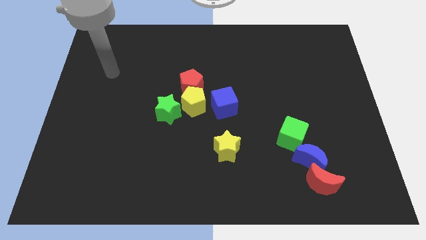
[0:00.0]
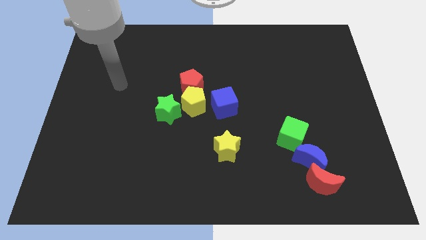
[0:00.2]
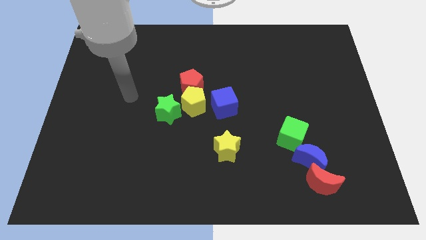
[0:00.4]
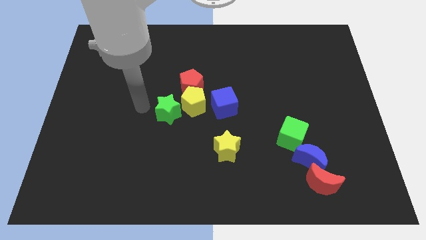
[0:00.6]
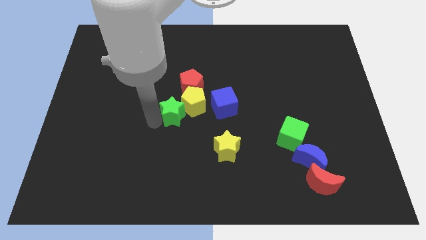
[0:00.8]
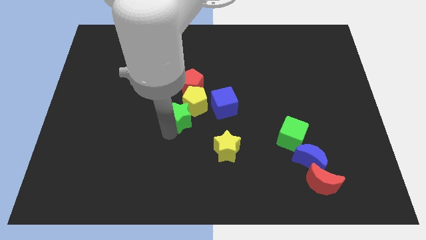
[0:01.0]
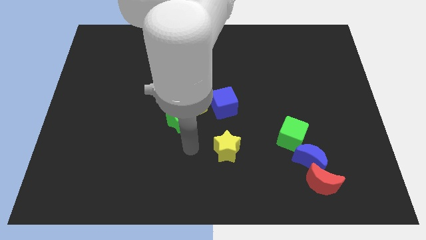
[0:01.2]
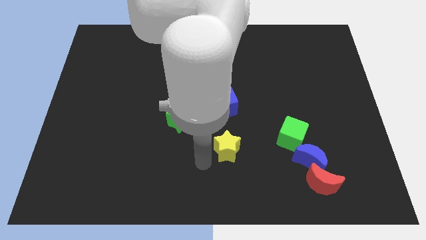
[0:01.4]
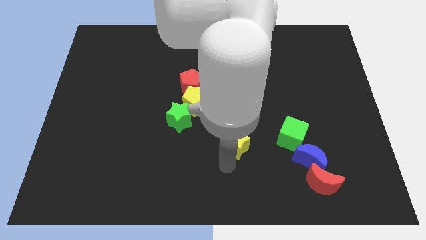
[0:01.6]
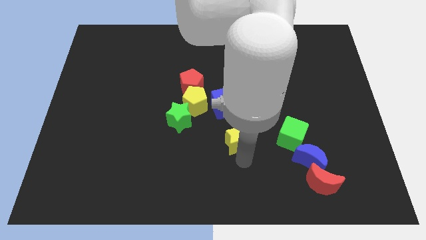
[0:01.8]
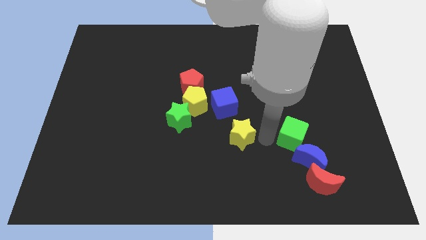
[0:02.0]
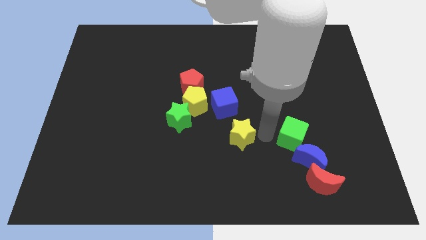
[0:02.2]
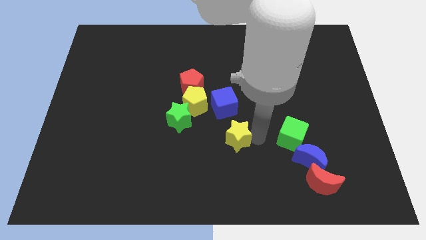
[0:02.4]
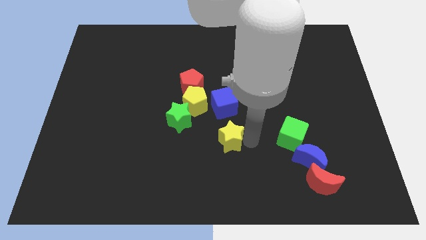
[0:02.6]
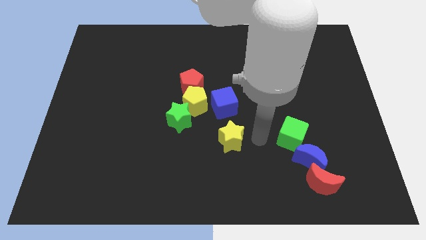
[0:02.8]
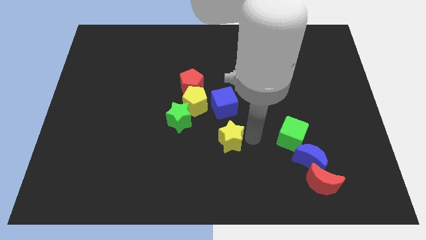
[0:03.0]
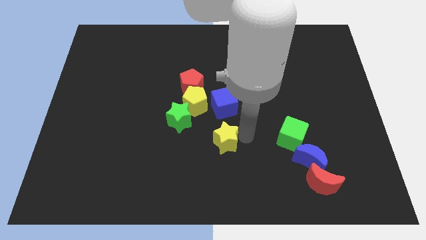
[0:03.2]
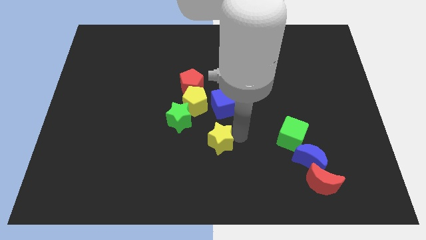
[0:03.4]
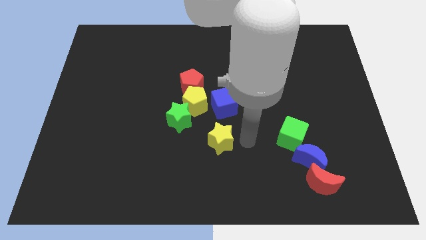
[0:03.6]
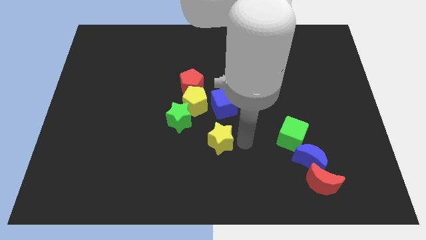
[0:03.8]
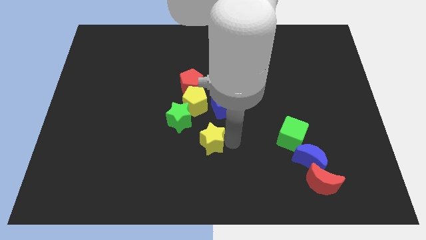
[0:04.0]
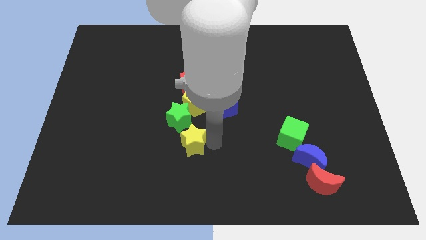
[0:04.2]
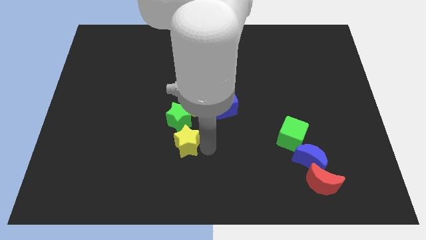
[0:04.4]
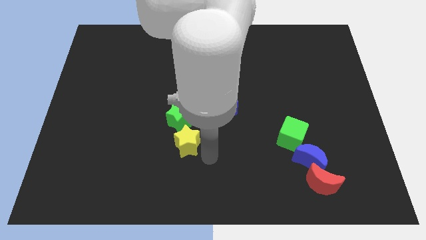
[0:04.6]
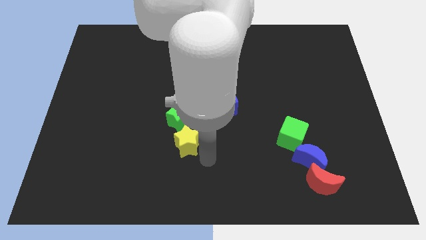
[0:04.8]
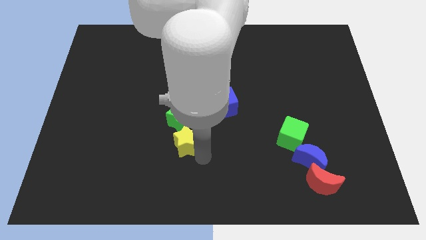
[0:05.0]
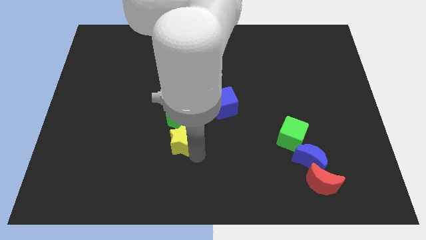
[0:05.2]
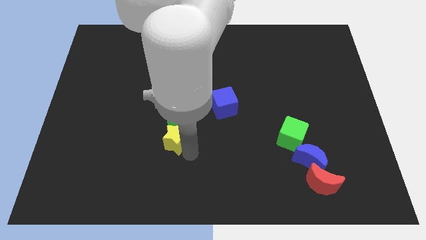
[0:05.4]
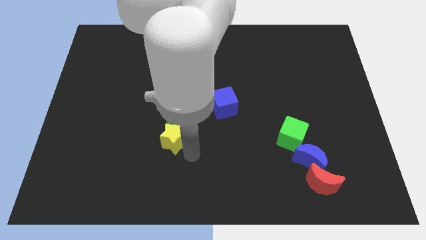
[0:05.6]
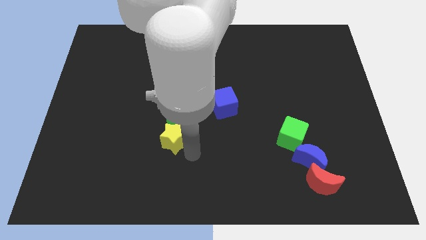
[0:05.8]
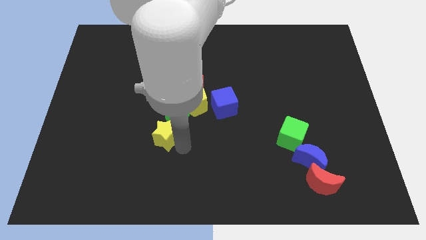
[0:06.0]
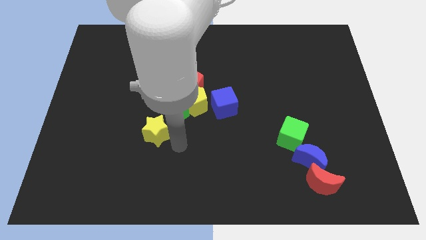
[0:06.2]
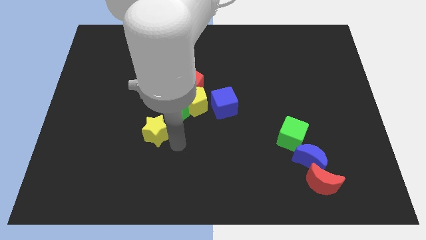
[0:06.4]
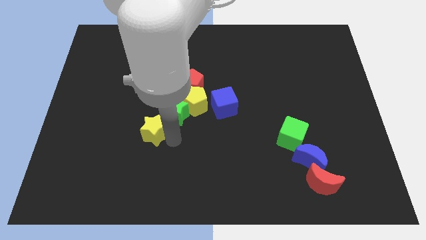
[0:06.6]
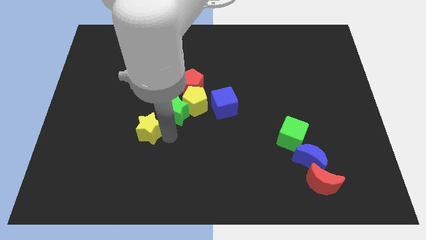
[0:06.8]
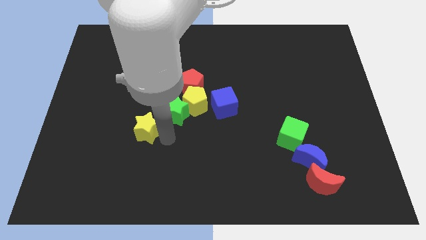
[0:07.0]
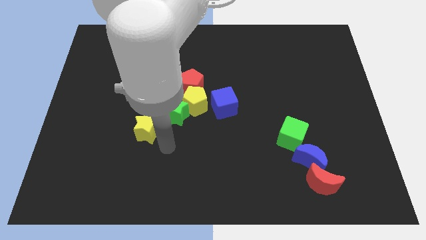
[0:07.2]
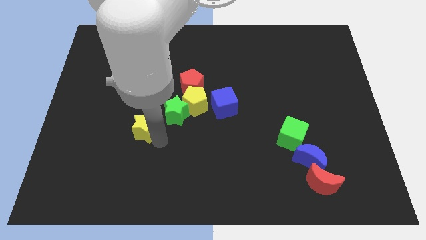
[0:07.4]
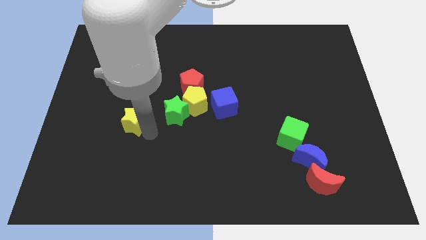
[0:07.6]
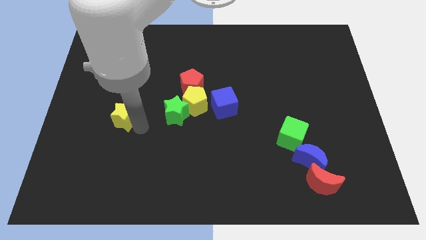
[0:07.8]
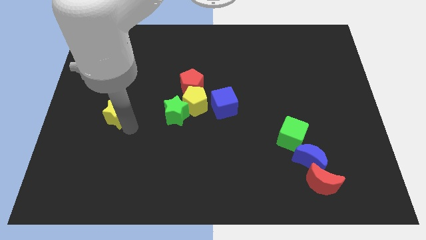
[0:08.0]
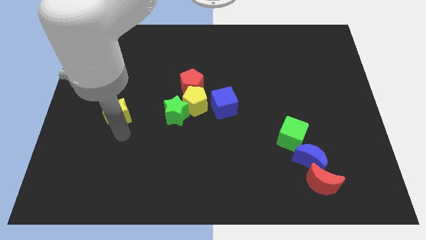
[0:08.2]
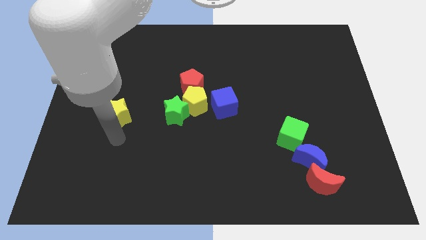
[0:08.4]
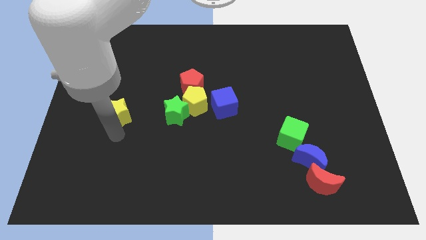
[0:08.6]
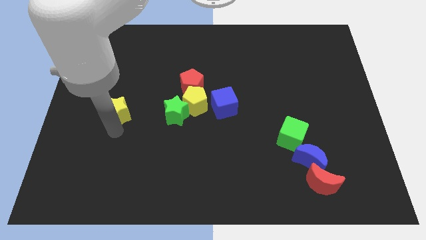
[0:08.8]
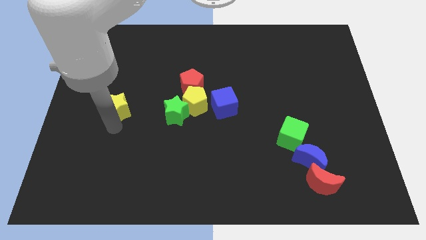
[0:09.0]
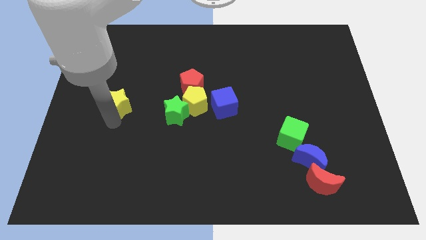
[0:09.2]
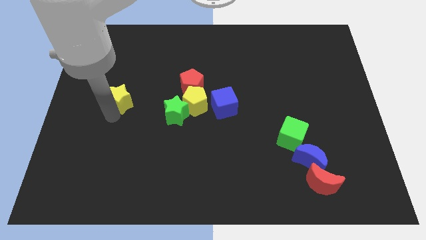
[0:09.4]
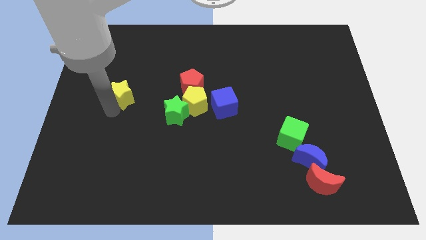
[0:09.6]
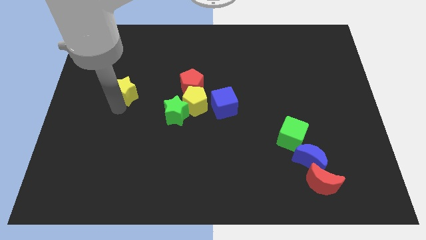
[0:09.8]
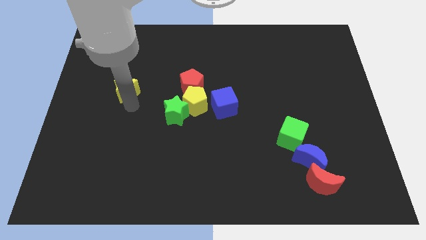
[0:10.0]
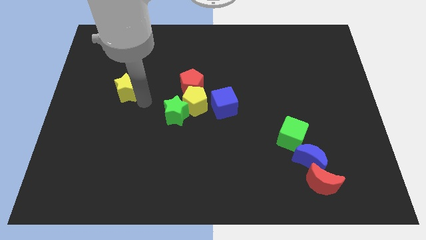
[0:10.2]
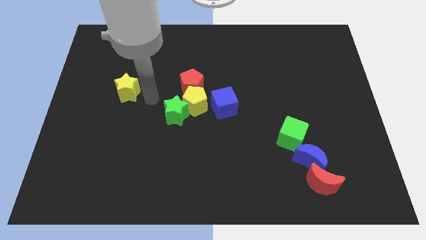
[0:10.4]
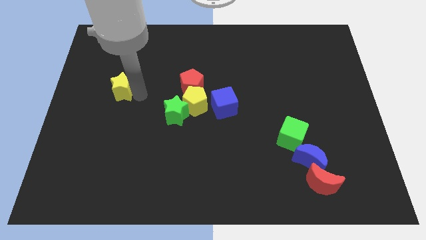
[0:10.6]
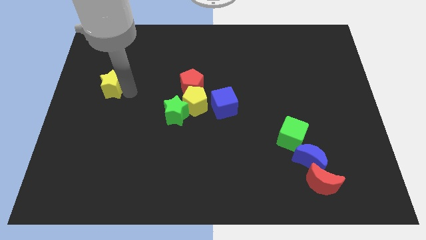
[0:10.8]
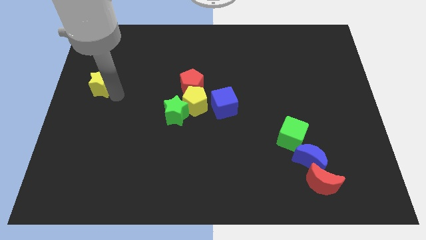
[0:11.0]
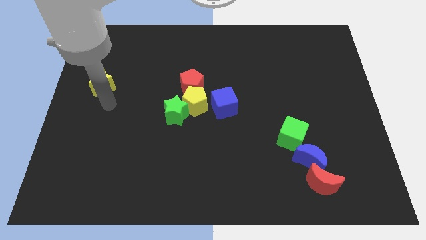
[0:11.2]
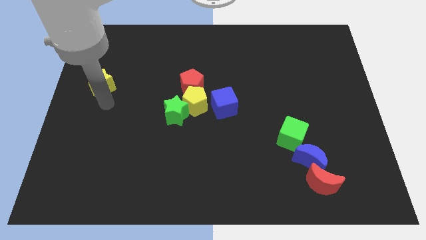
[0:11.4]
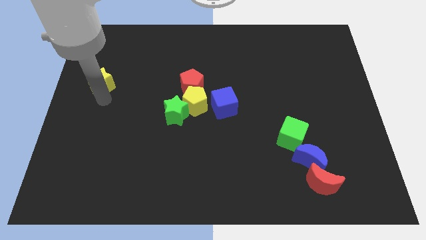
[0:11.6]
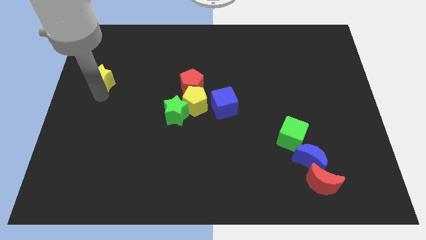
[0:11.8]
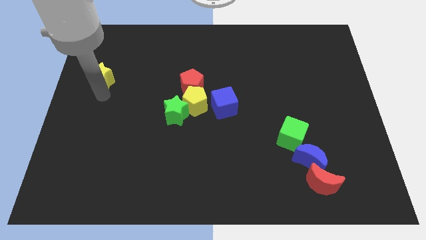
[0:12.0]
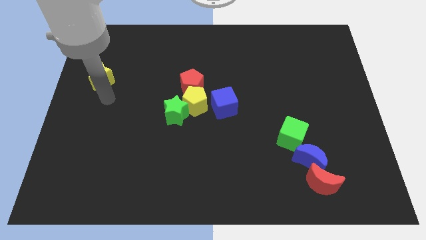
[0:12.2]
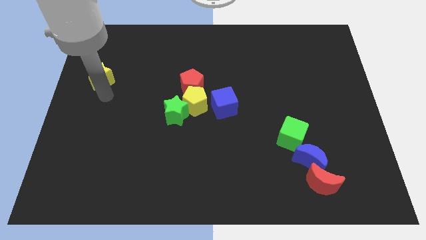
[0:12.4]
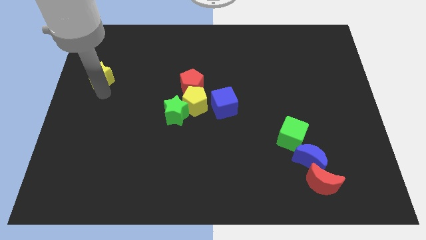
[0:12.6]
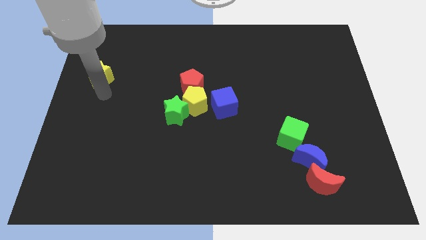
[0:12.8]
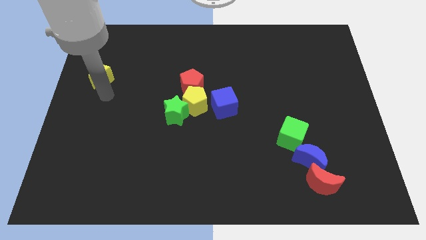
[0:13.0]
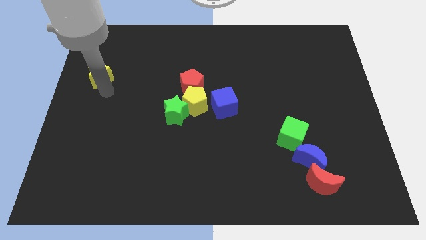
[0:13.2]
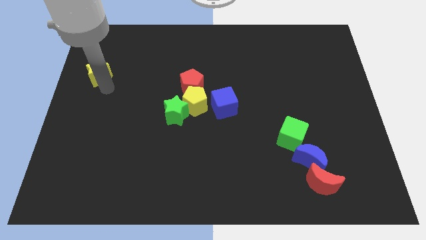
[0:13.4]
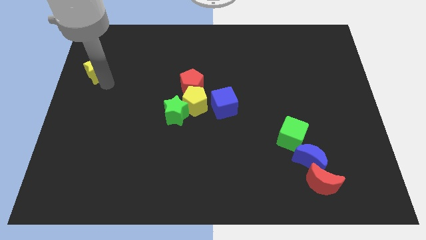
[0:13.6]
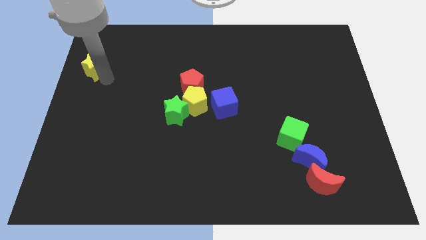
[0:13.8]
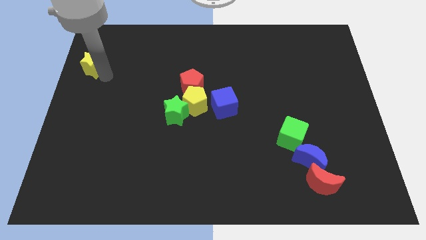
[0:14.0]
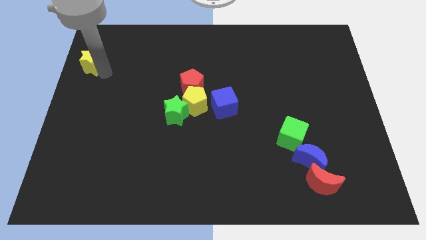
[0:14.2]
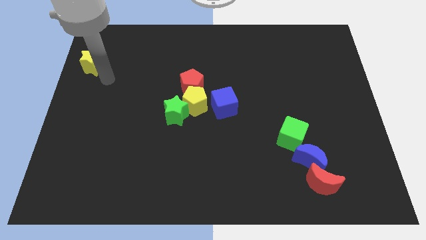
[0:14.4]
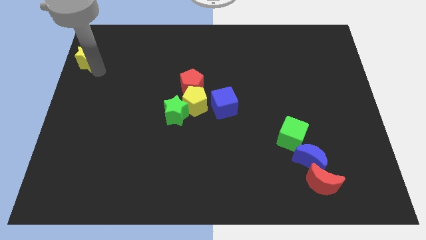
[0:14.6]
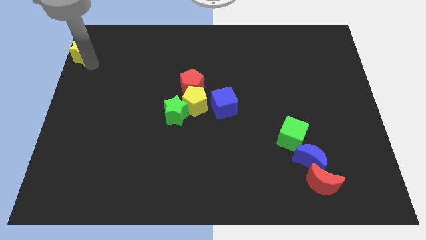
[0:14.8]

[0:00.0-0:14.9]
push the yellow star to the upper left corner
